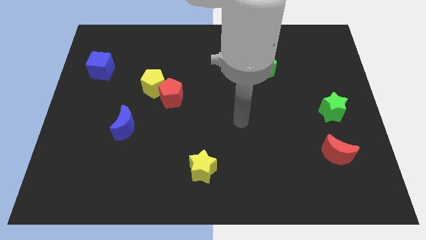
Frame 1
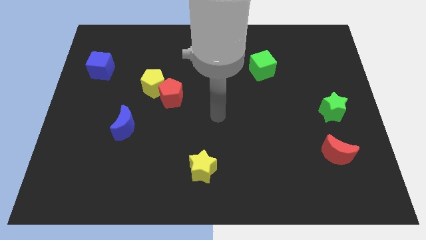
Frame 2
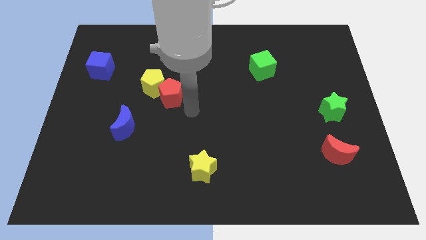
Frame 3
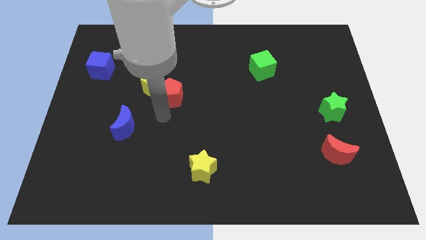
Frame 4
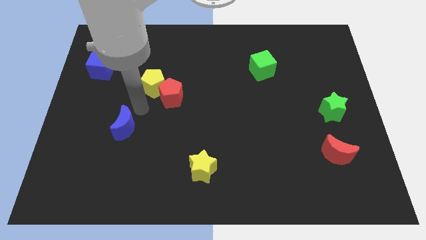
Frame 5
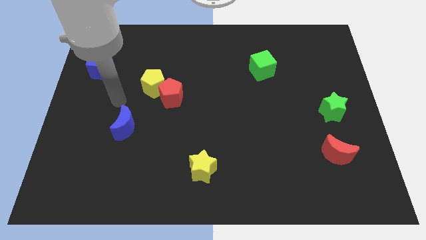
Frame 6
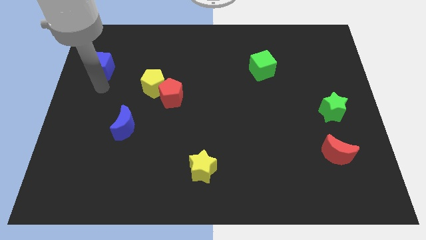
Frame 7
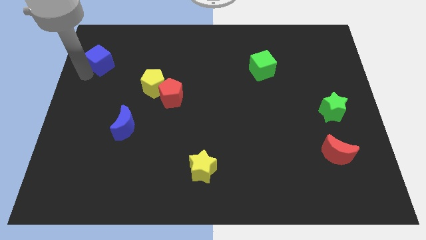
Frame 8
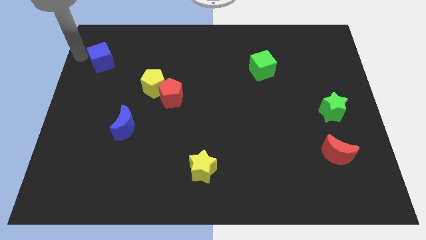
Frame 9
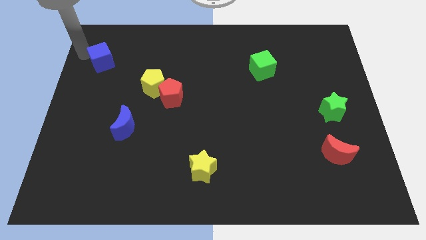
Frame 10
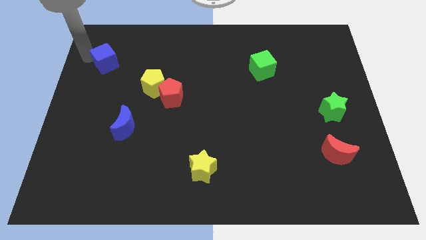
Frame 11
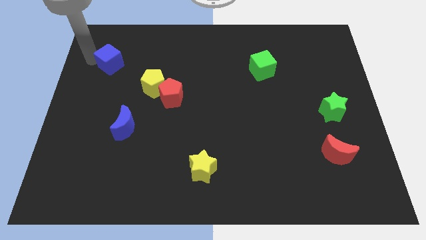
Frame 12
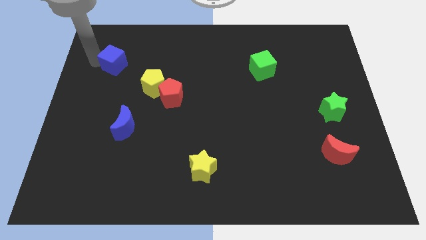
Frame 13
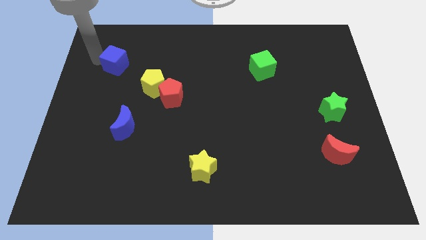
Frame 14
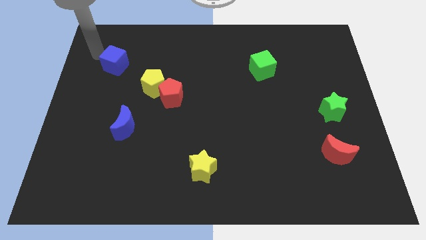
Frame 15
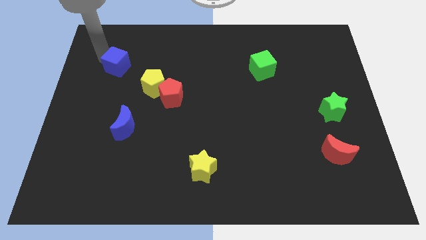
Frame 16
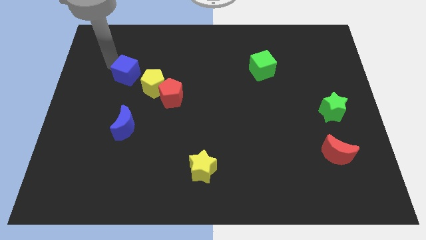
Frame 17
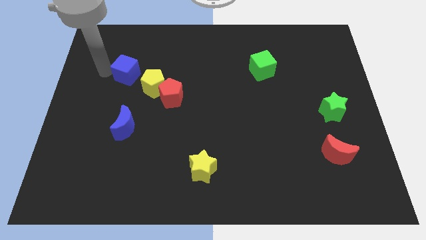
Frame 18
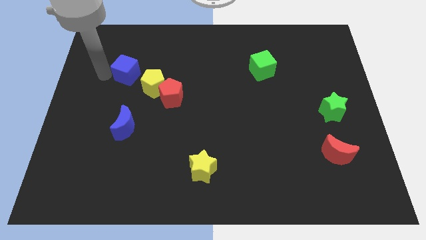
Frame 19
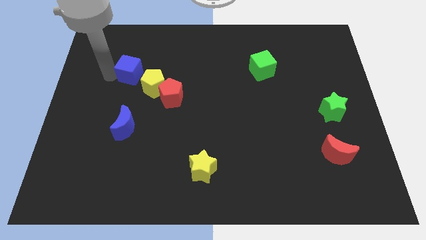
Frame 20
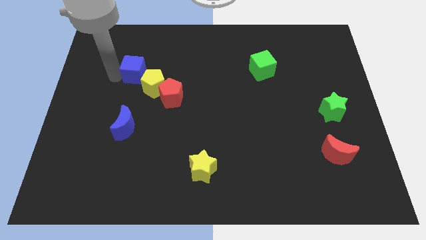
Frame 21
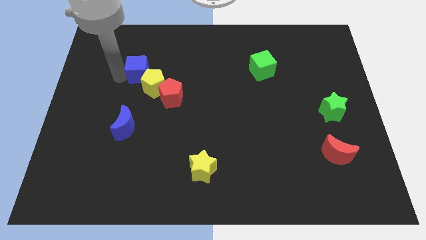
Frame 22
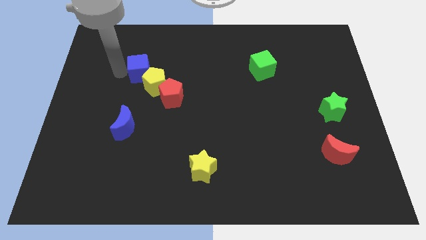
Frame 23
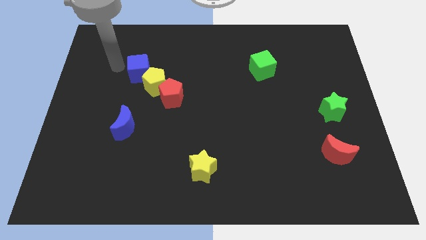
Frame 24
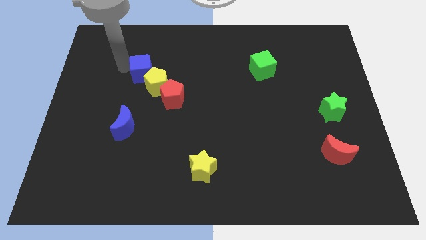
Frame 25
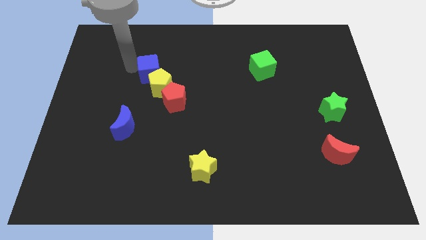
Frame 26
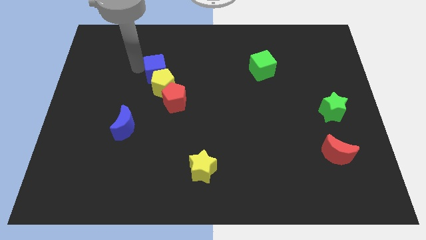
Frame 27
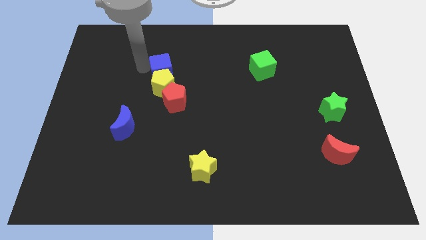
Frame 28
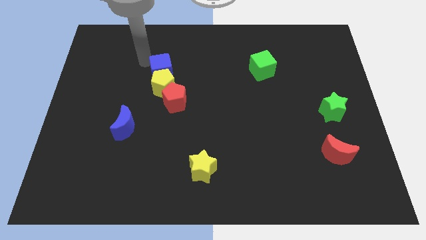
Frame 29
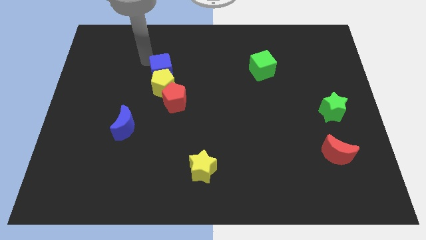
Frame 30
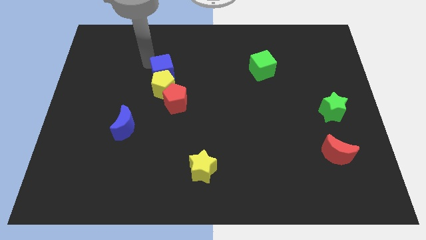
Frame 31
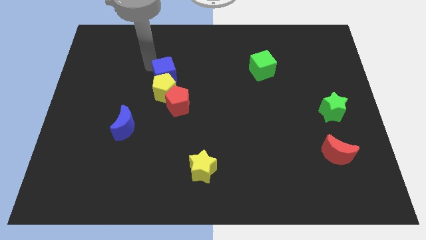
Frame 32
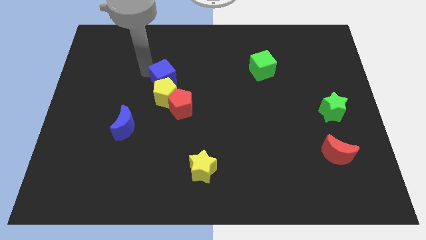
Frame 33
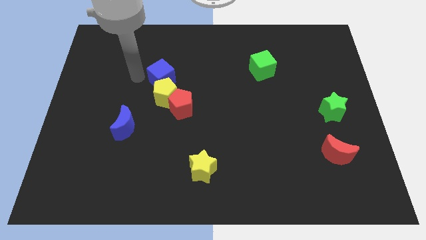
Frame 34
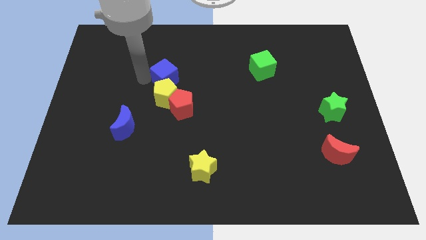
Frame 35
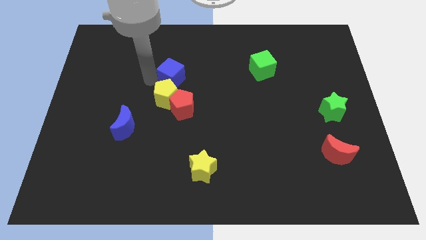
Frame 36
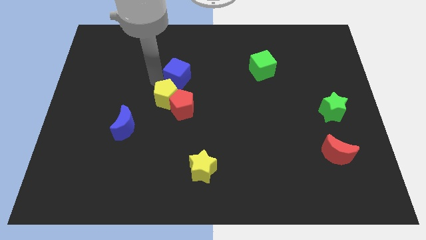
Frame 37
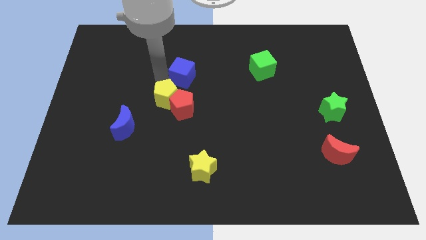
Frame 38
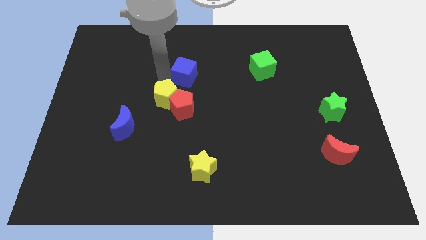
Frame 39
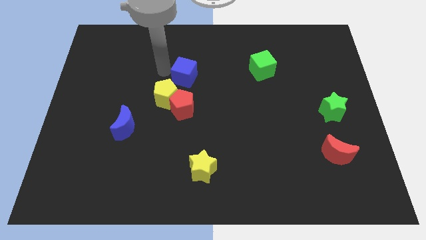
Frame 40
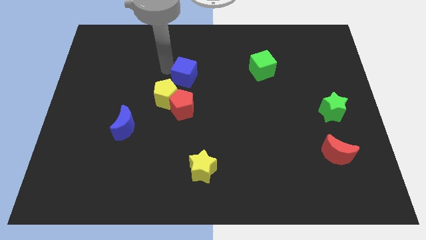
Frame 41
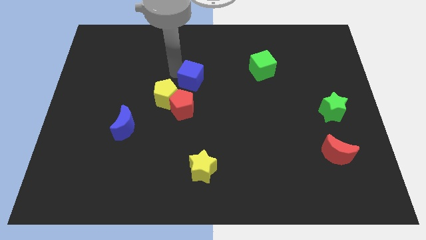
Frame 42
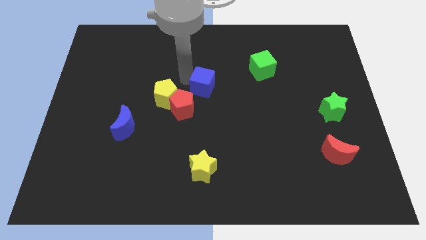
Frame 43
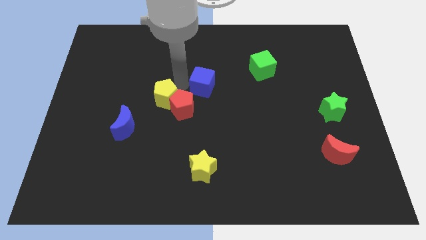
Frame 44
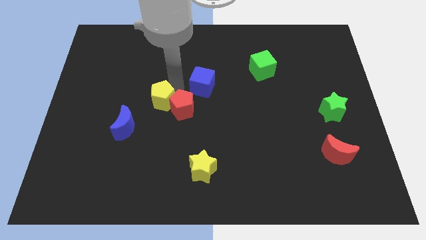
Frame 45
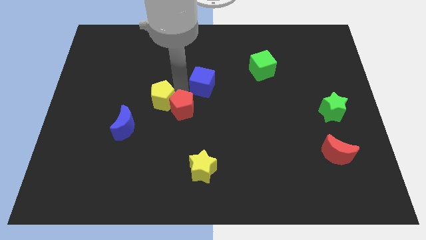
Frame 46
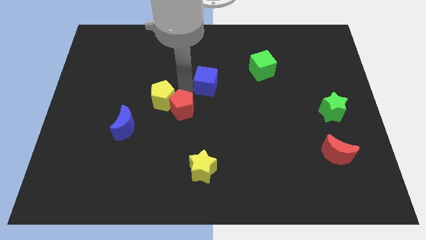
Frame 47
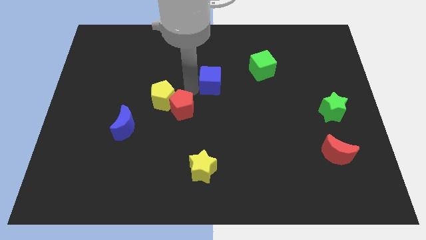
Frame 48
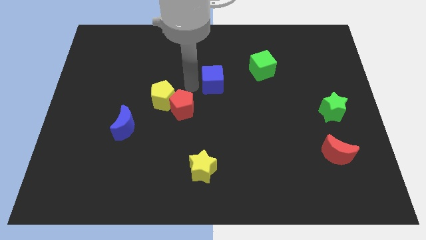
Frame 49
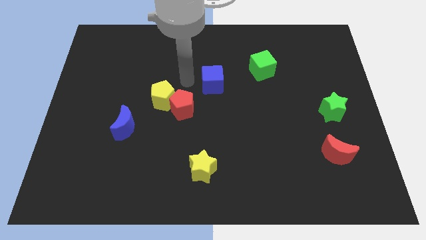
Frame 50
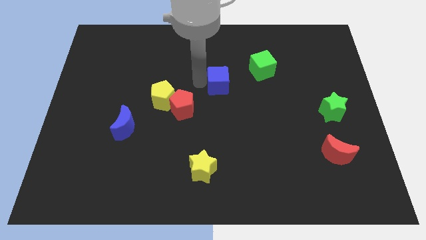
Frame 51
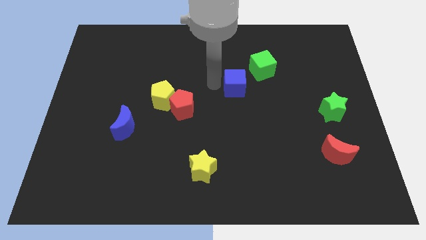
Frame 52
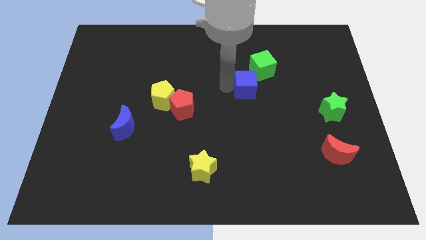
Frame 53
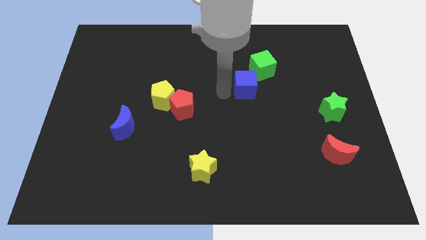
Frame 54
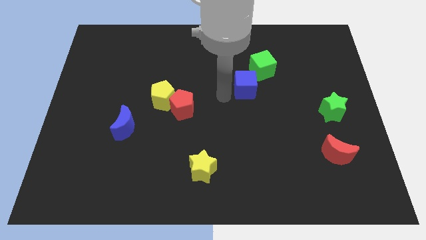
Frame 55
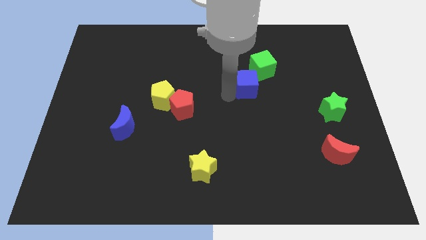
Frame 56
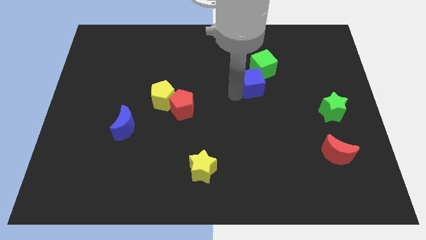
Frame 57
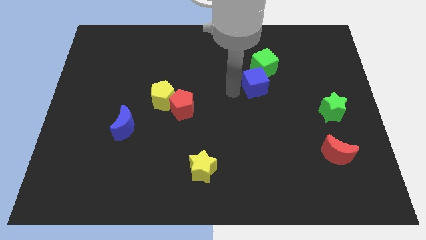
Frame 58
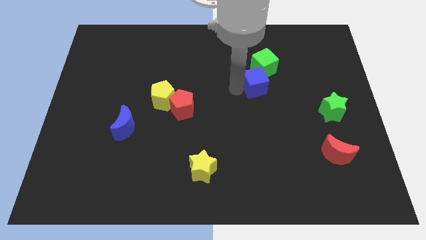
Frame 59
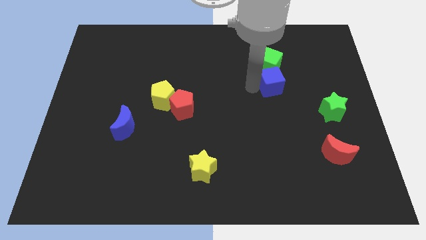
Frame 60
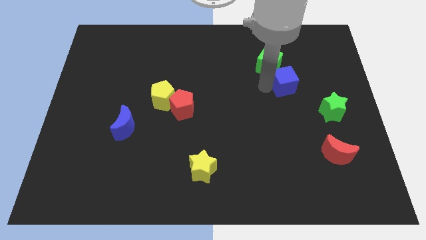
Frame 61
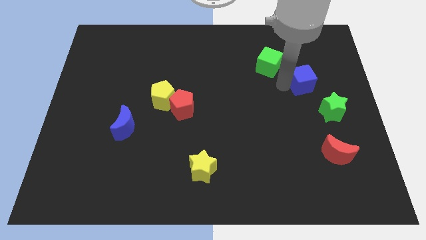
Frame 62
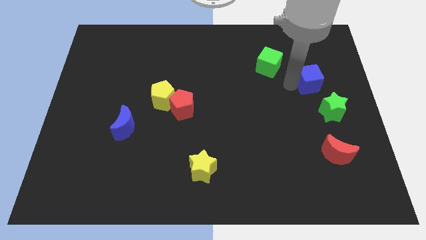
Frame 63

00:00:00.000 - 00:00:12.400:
slide the blue cube above the green star

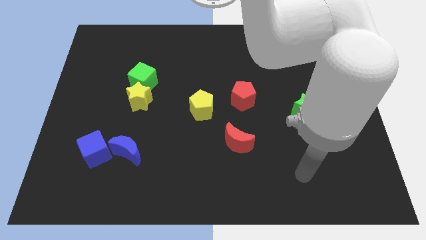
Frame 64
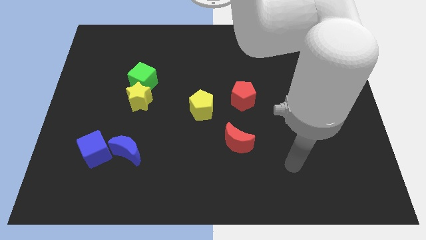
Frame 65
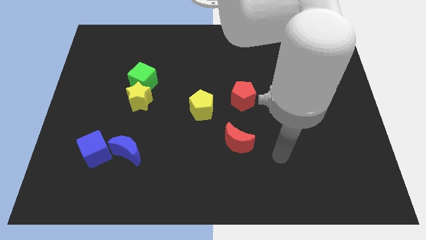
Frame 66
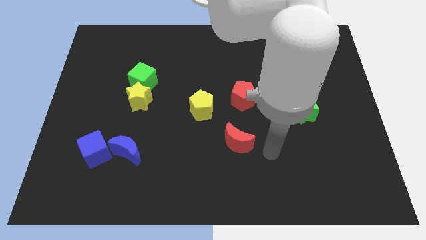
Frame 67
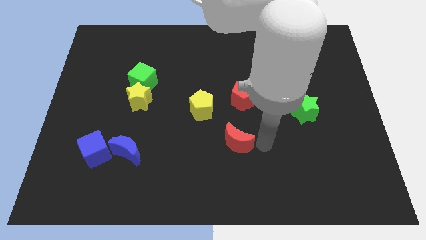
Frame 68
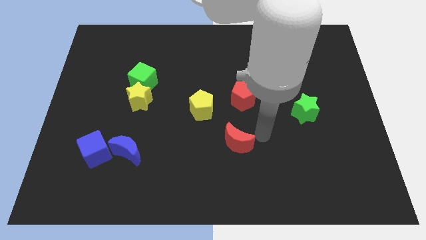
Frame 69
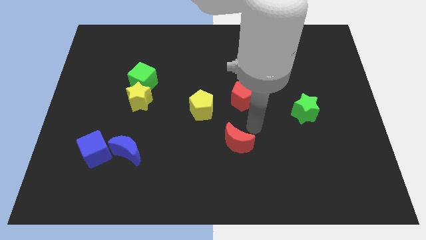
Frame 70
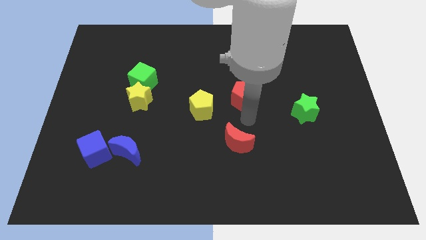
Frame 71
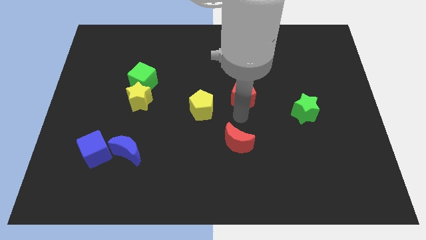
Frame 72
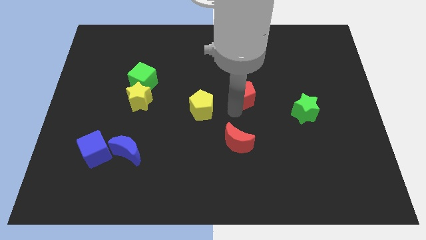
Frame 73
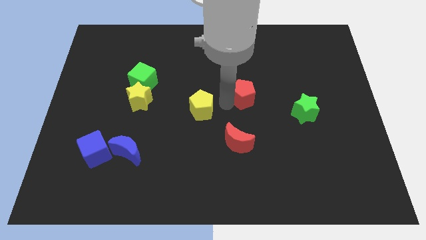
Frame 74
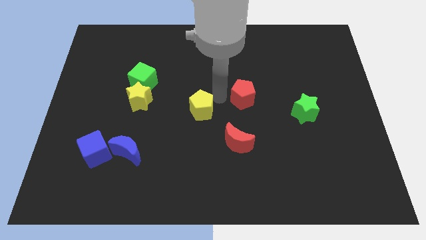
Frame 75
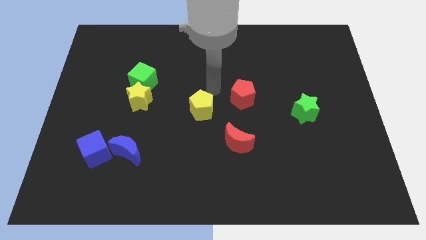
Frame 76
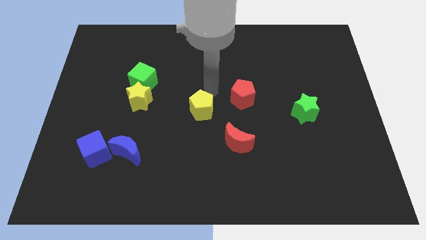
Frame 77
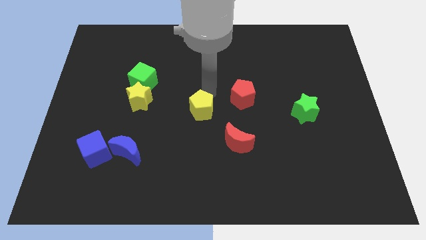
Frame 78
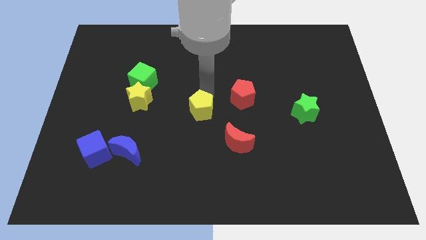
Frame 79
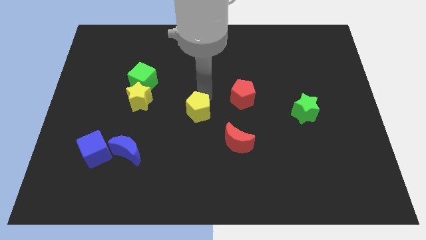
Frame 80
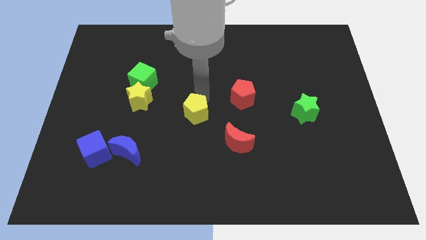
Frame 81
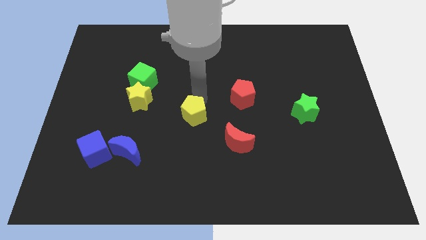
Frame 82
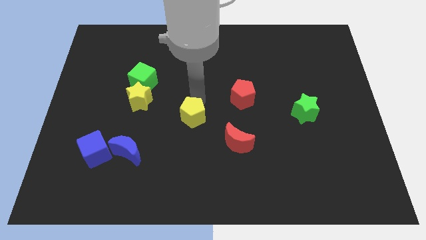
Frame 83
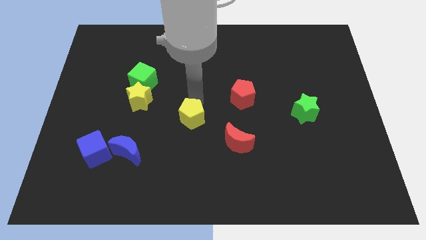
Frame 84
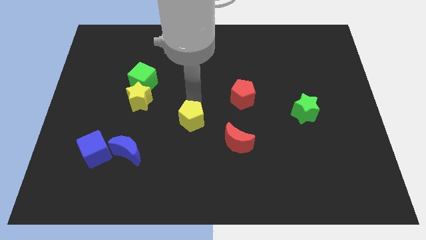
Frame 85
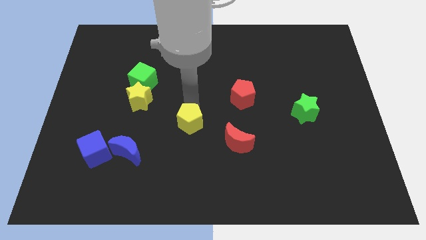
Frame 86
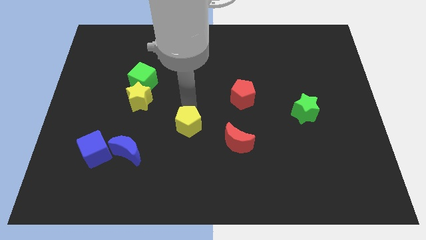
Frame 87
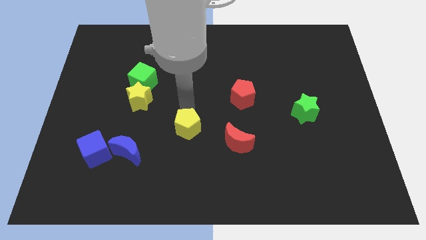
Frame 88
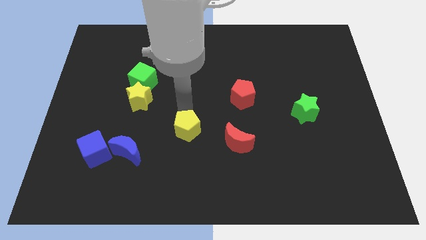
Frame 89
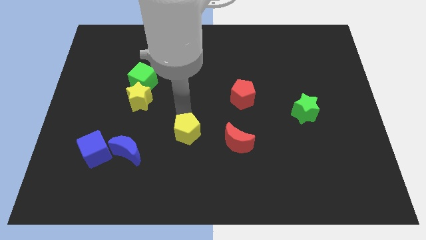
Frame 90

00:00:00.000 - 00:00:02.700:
push the yellow pentagon to the right of the blue moon
